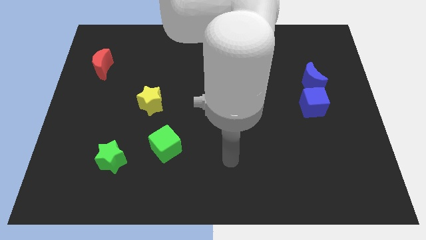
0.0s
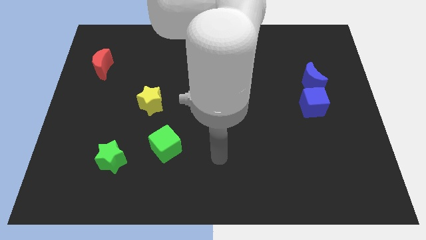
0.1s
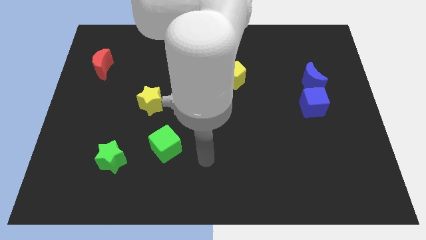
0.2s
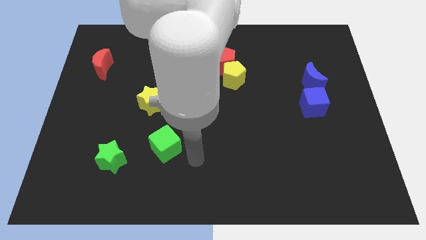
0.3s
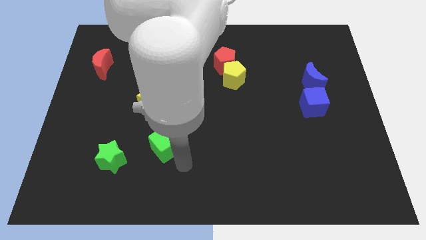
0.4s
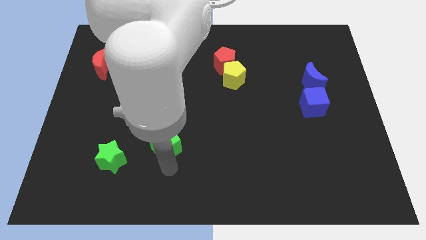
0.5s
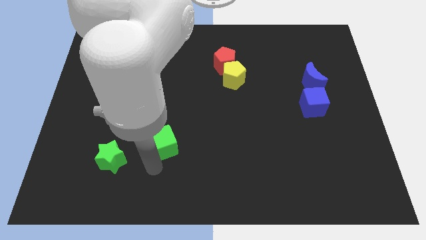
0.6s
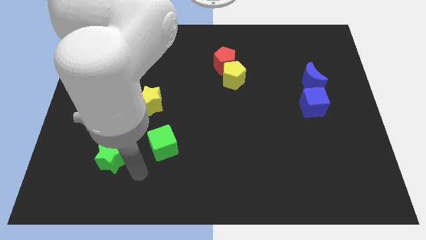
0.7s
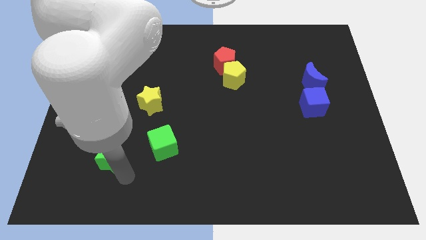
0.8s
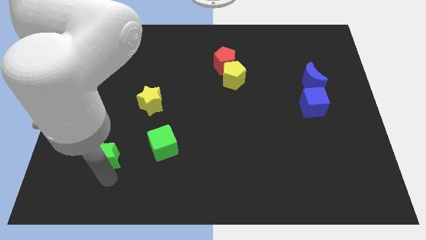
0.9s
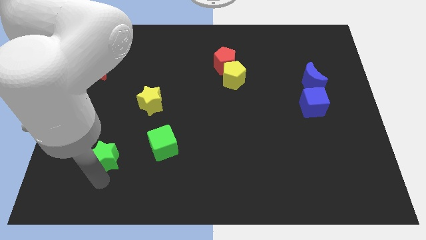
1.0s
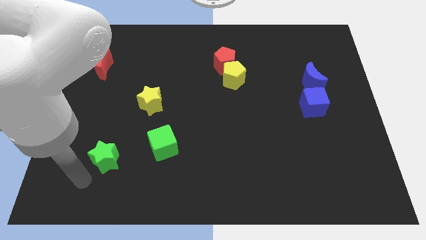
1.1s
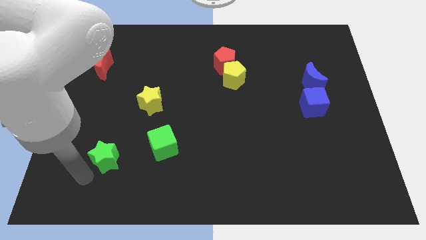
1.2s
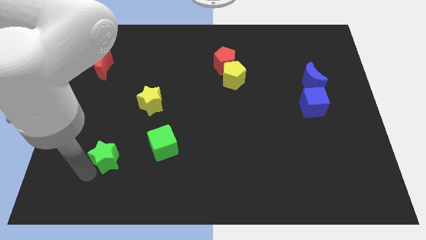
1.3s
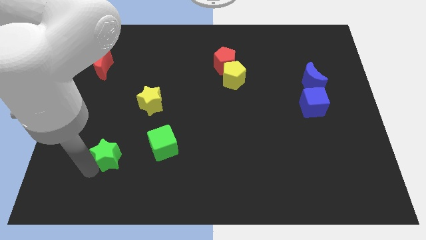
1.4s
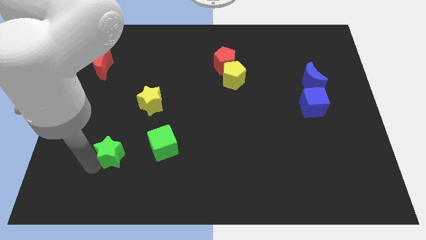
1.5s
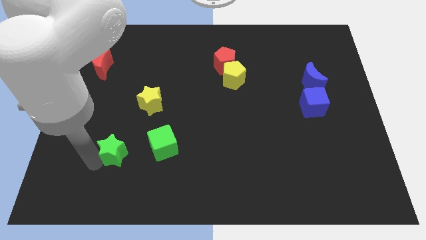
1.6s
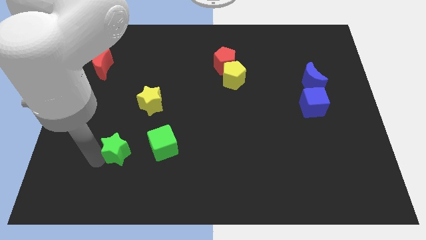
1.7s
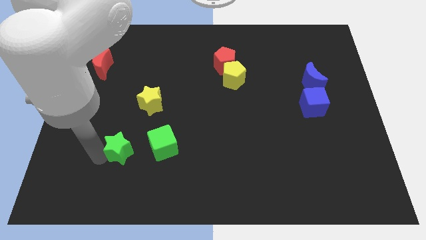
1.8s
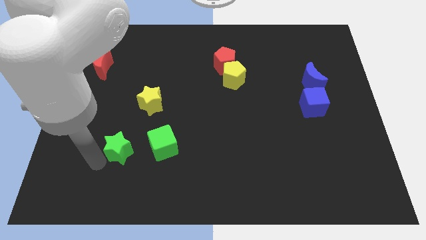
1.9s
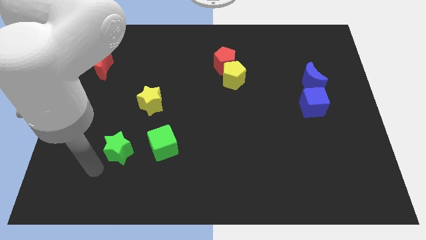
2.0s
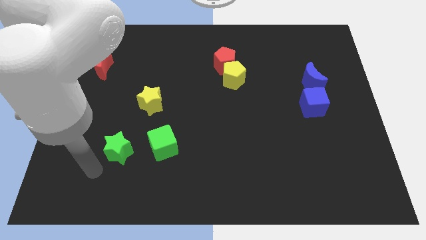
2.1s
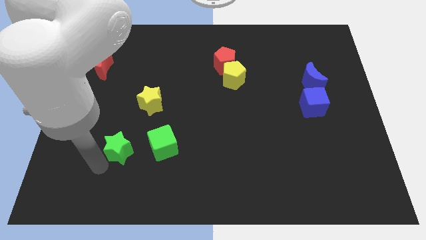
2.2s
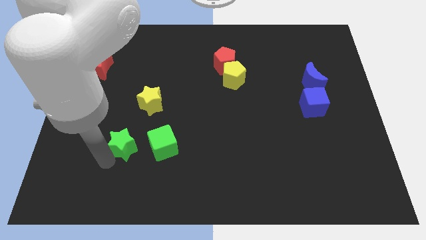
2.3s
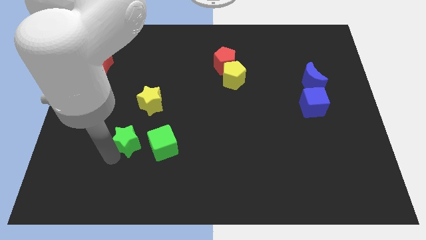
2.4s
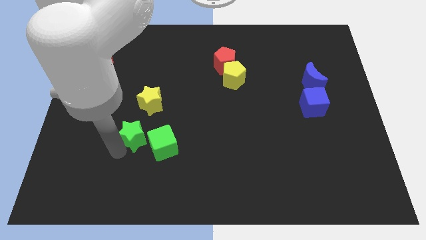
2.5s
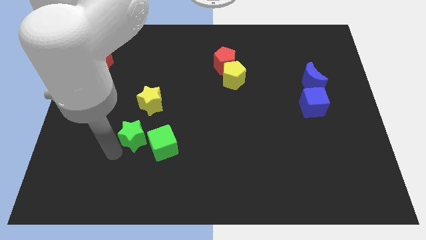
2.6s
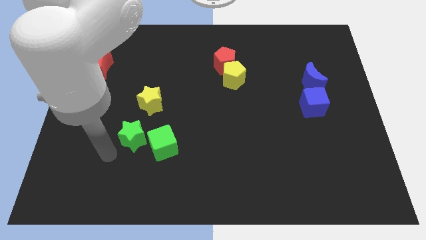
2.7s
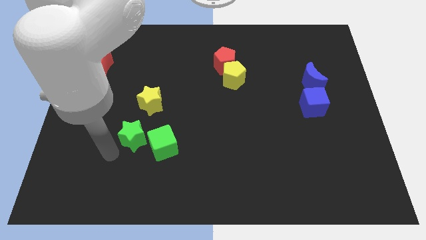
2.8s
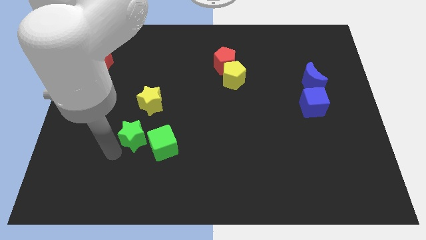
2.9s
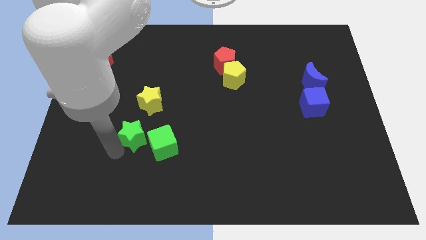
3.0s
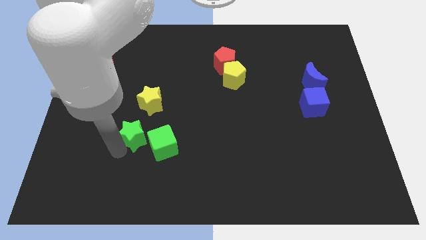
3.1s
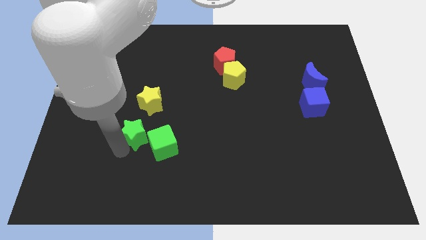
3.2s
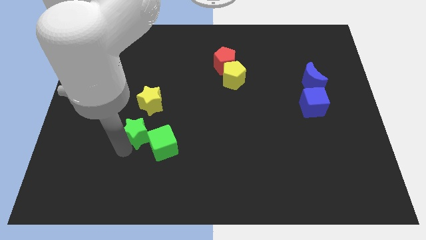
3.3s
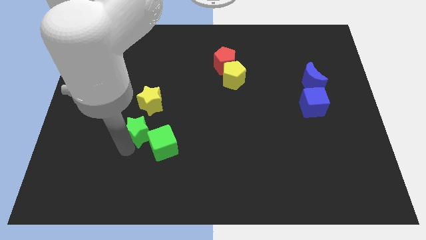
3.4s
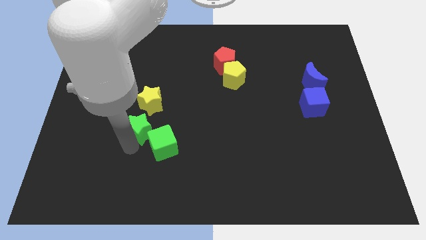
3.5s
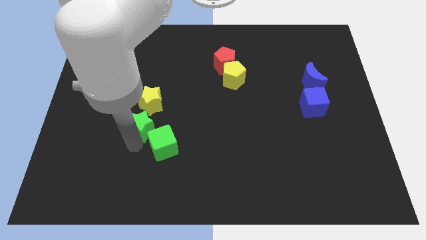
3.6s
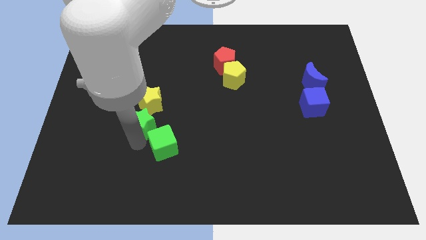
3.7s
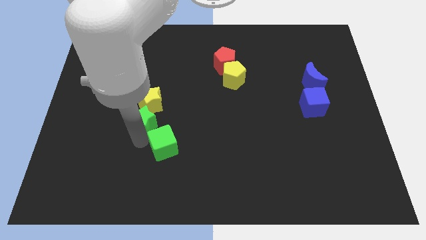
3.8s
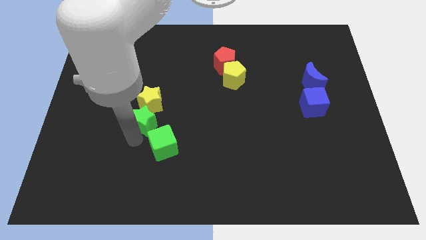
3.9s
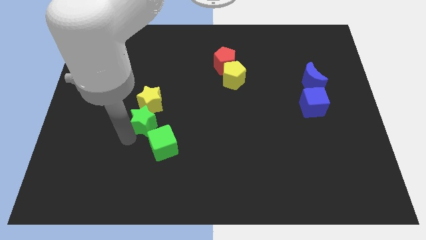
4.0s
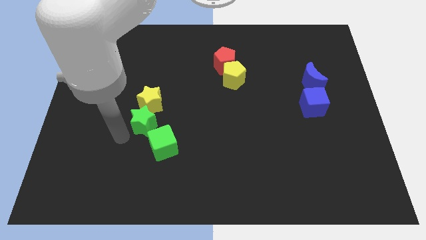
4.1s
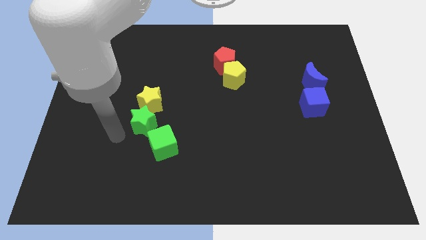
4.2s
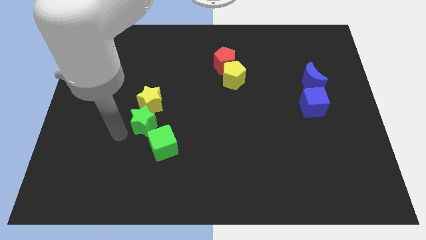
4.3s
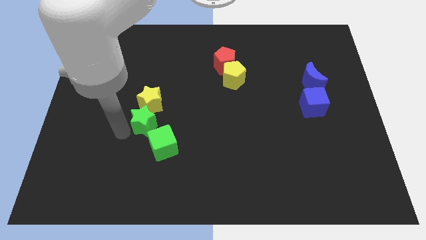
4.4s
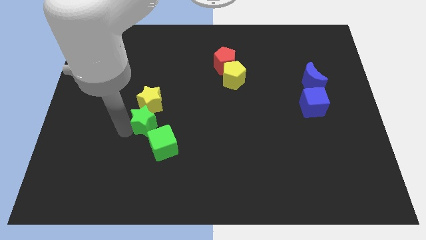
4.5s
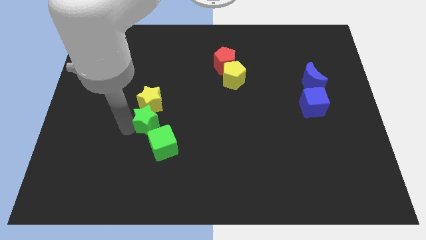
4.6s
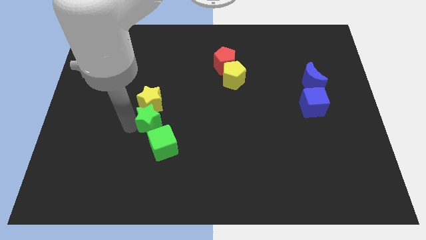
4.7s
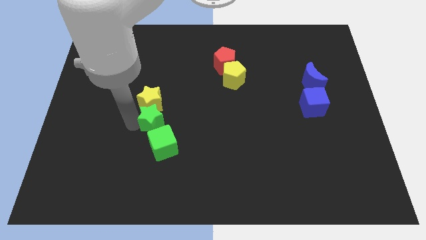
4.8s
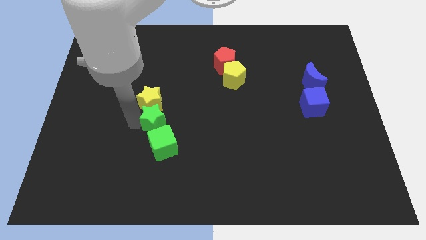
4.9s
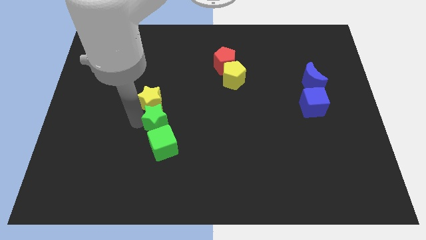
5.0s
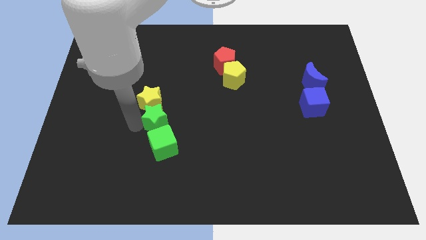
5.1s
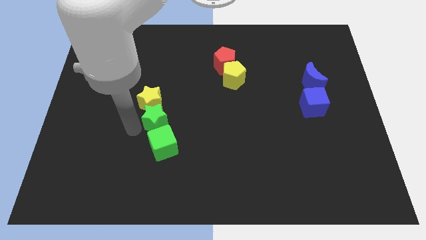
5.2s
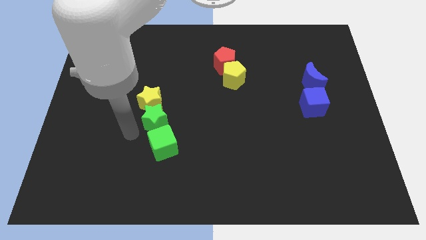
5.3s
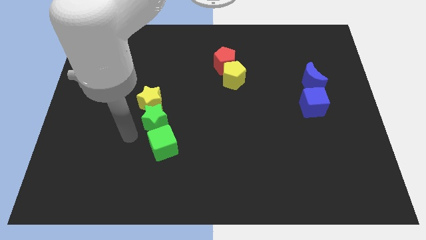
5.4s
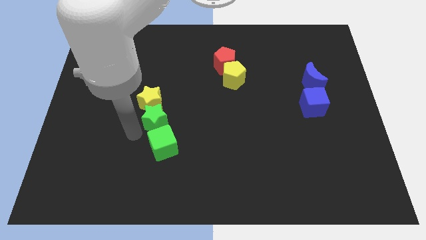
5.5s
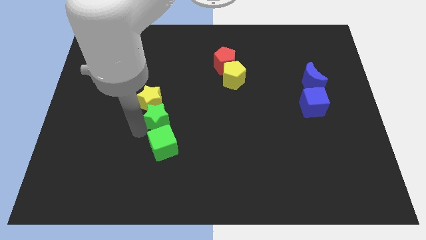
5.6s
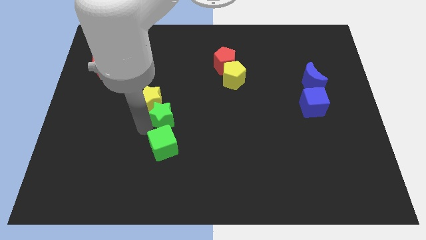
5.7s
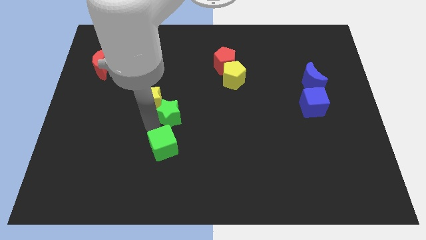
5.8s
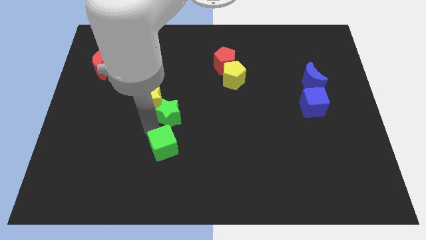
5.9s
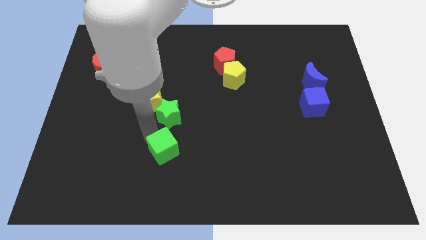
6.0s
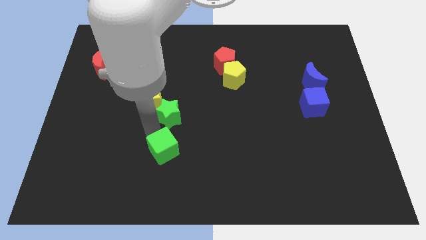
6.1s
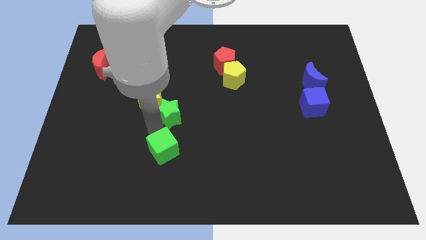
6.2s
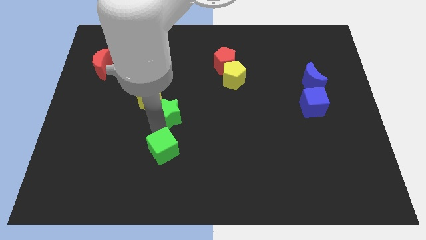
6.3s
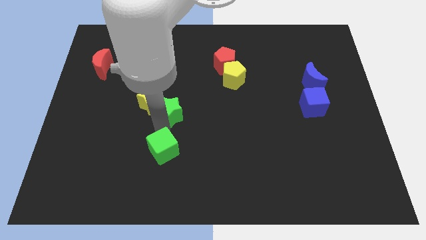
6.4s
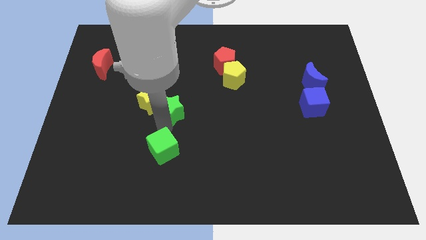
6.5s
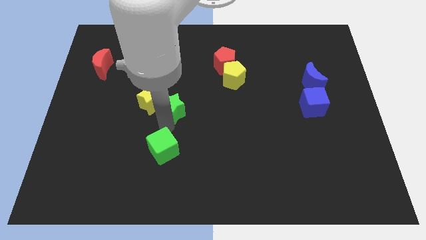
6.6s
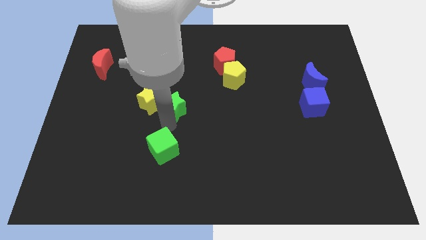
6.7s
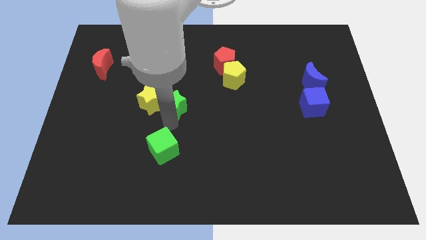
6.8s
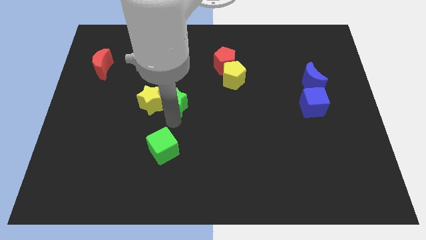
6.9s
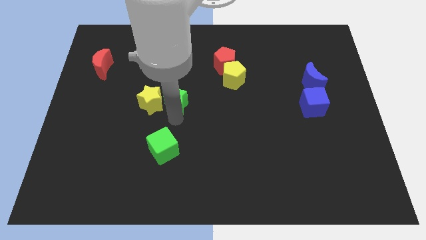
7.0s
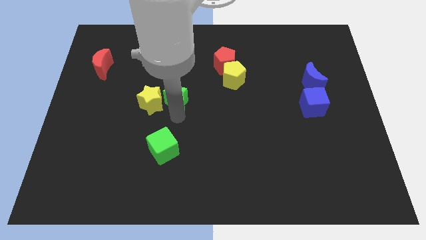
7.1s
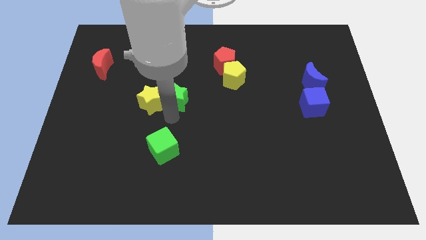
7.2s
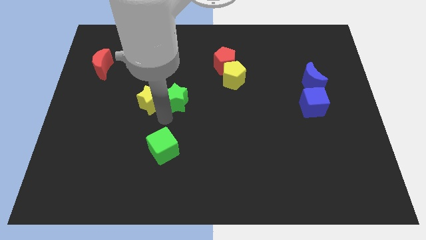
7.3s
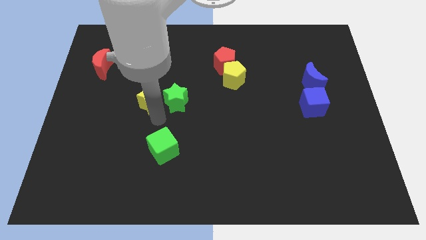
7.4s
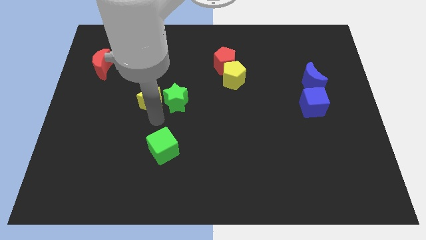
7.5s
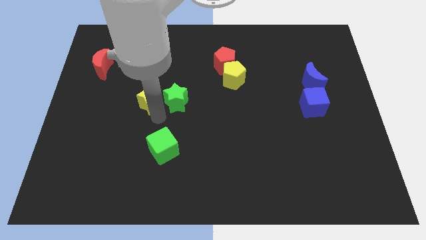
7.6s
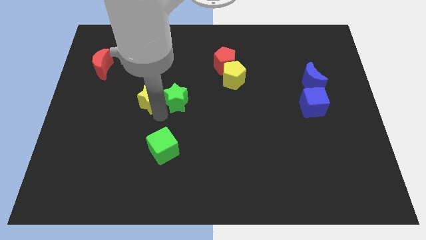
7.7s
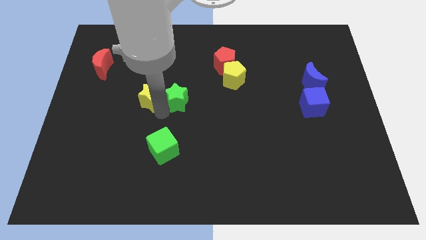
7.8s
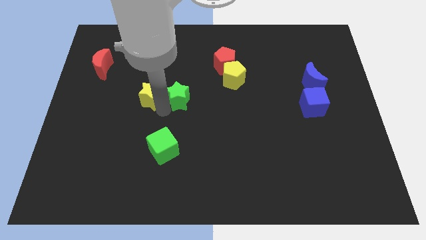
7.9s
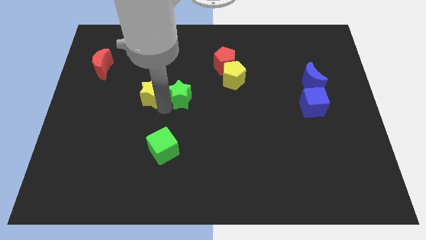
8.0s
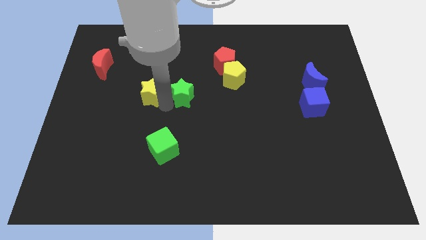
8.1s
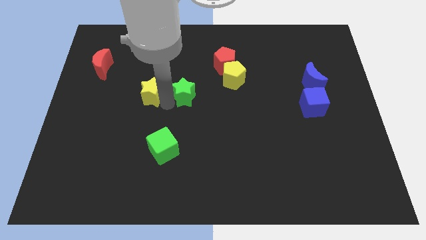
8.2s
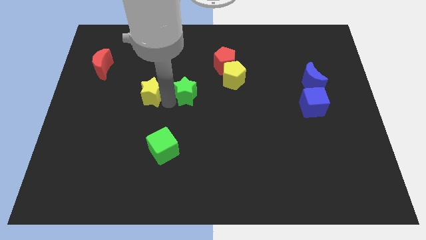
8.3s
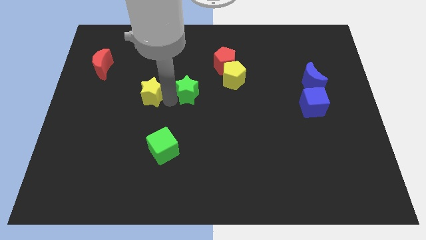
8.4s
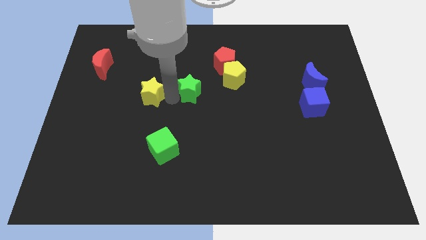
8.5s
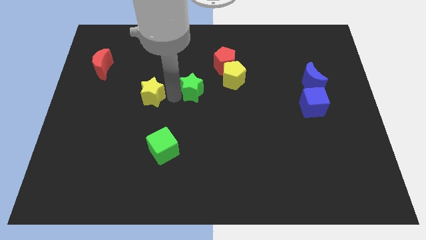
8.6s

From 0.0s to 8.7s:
slide the green star to the bottom left of the red pentagon
